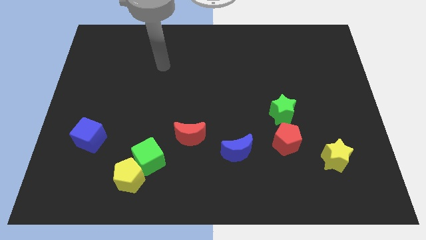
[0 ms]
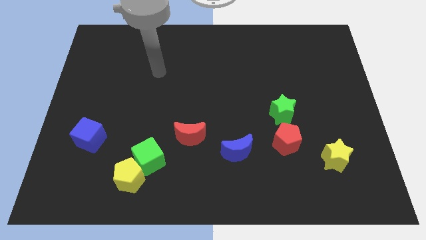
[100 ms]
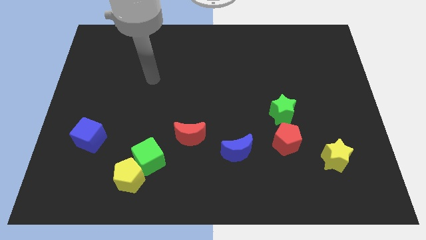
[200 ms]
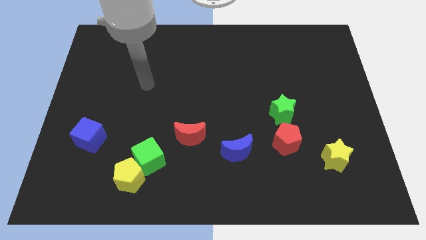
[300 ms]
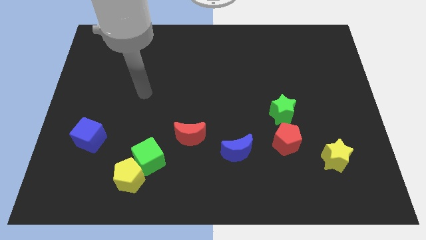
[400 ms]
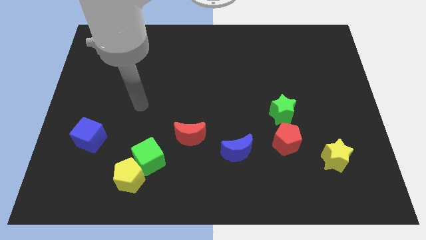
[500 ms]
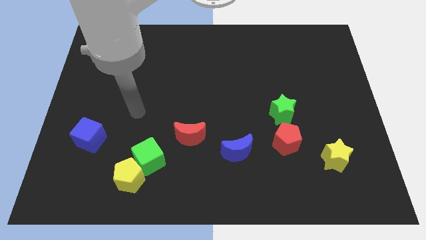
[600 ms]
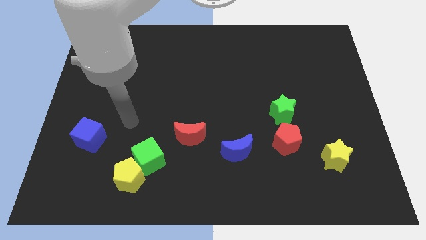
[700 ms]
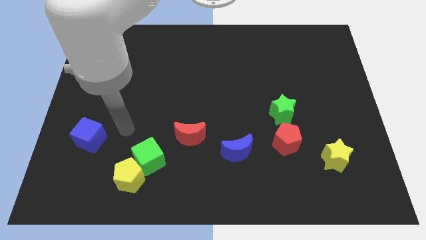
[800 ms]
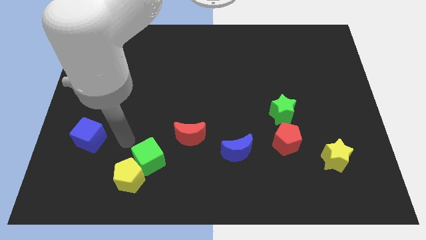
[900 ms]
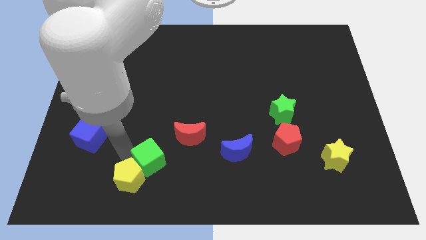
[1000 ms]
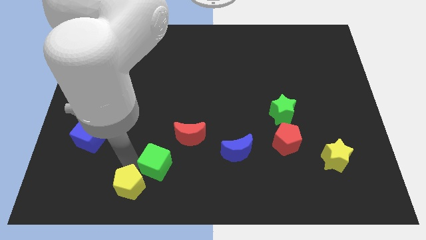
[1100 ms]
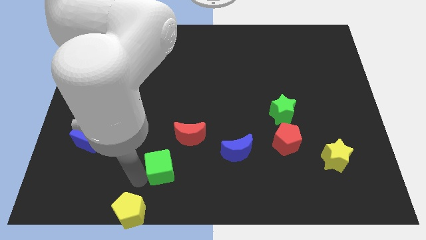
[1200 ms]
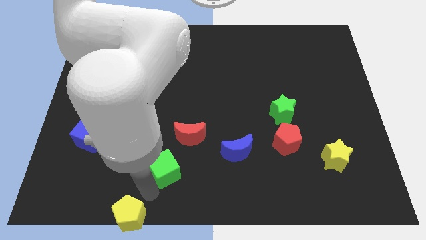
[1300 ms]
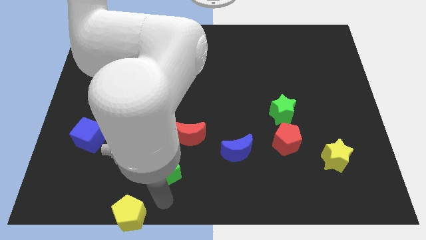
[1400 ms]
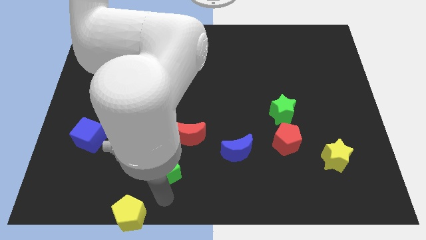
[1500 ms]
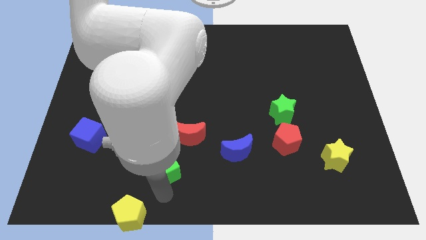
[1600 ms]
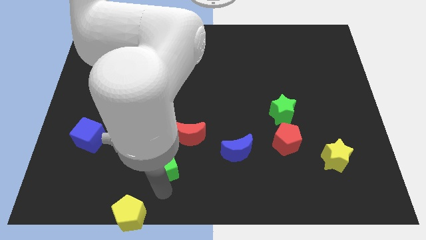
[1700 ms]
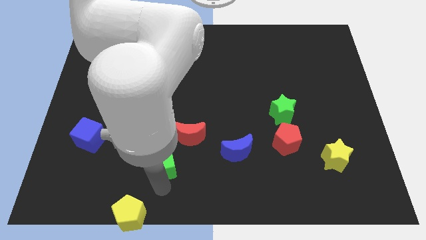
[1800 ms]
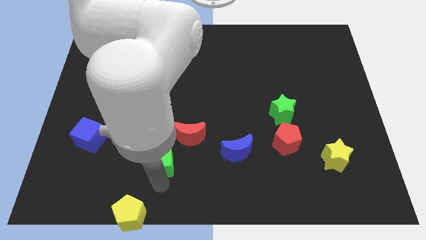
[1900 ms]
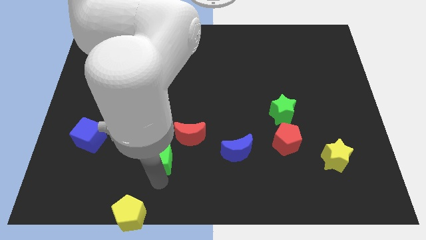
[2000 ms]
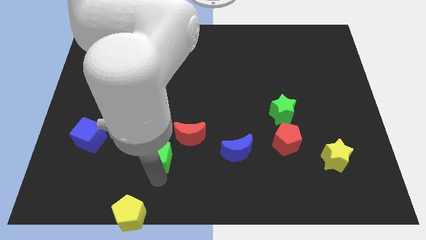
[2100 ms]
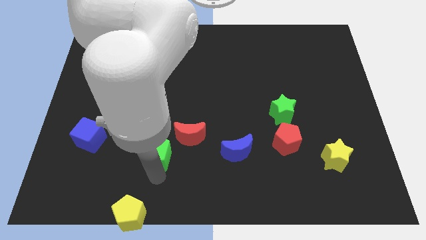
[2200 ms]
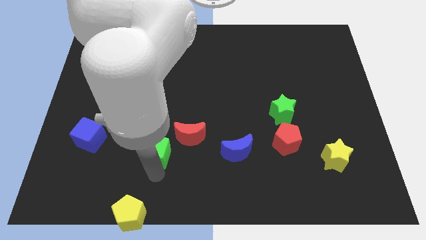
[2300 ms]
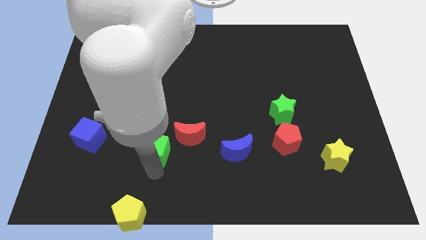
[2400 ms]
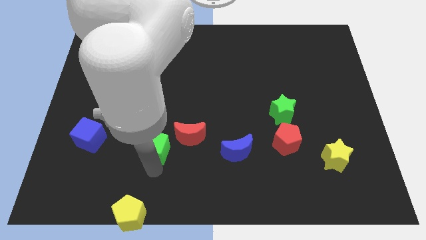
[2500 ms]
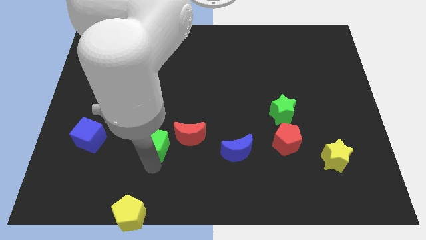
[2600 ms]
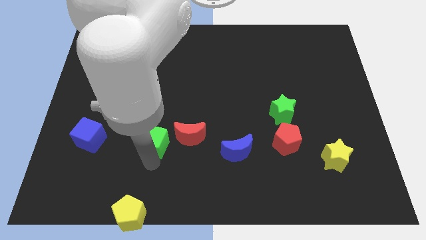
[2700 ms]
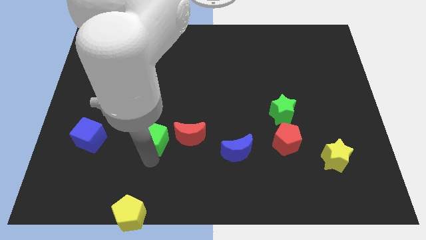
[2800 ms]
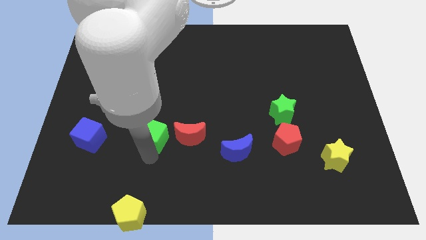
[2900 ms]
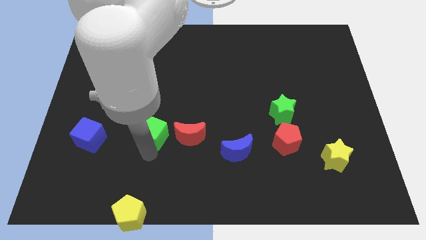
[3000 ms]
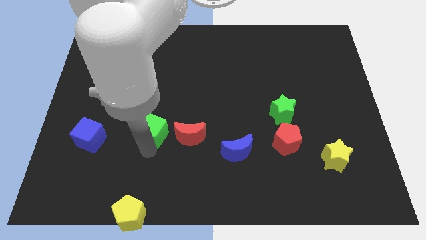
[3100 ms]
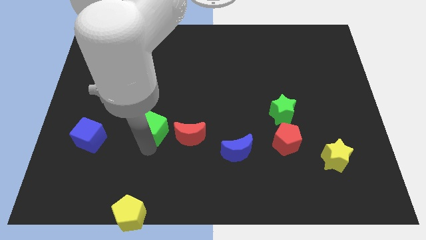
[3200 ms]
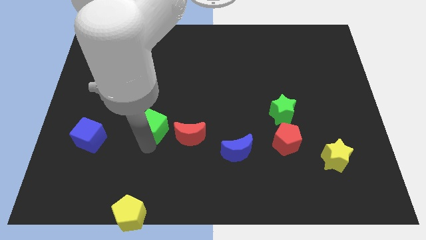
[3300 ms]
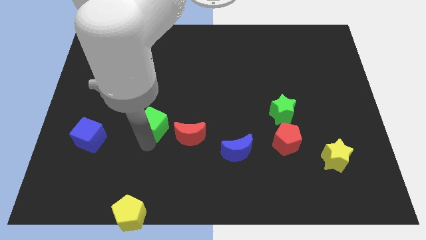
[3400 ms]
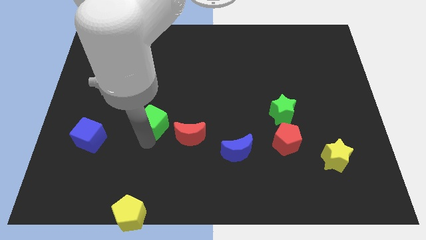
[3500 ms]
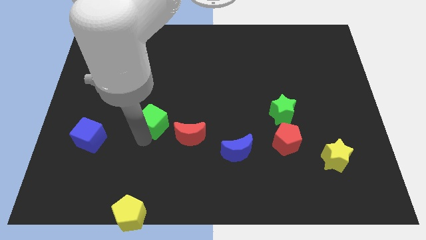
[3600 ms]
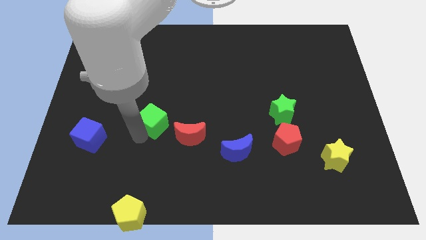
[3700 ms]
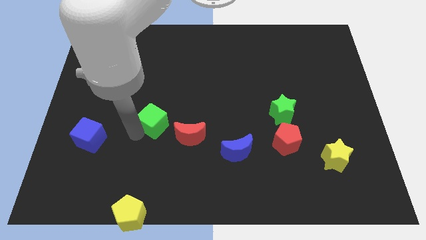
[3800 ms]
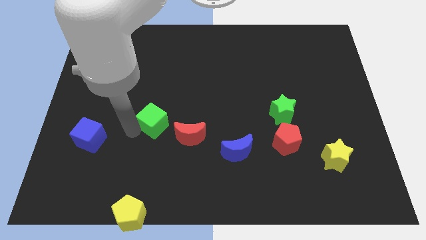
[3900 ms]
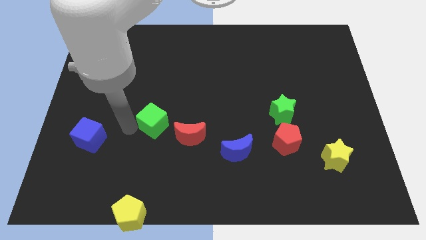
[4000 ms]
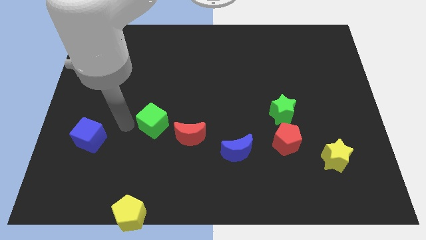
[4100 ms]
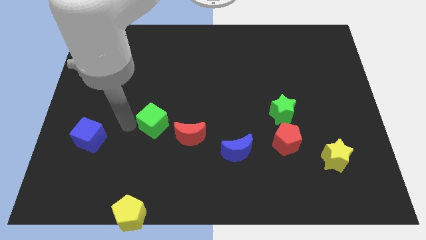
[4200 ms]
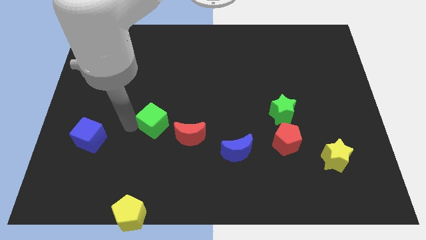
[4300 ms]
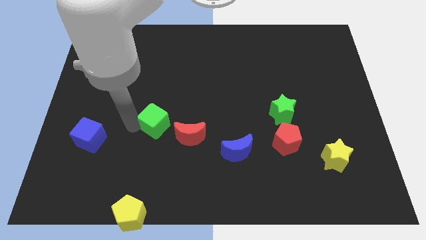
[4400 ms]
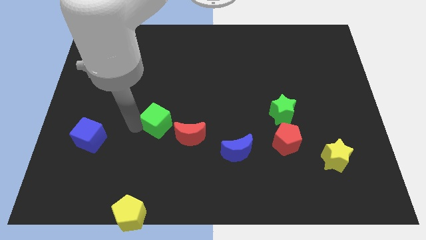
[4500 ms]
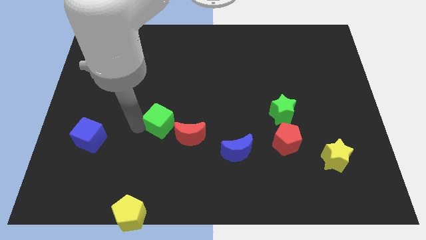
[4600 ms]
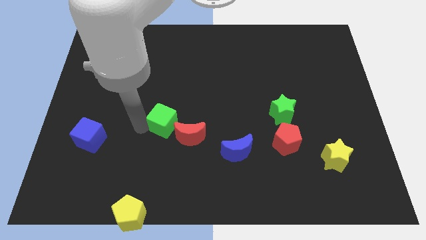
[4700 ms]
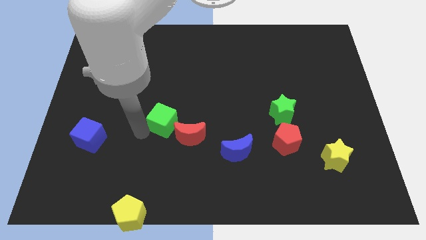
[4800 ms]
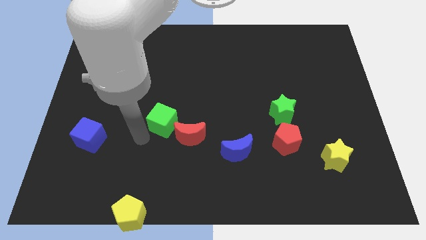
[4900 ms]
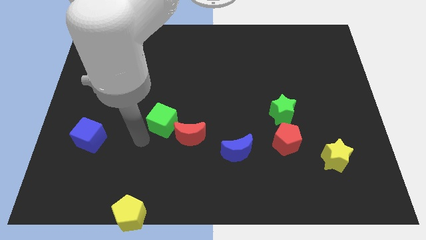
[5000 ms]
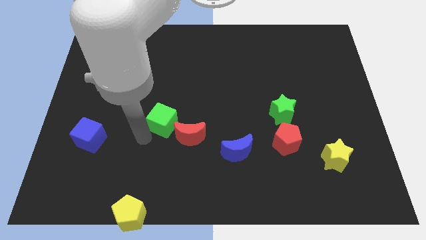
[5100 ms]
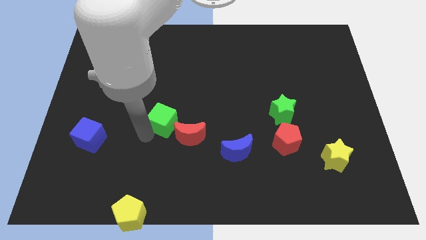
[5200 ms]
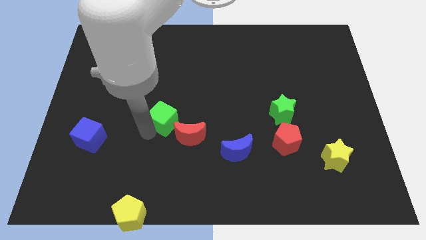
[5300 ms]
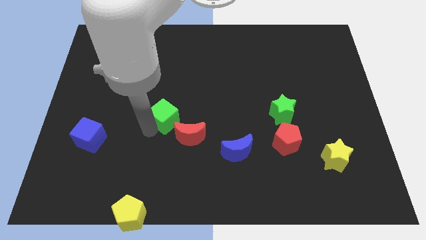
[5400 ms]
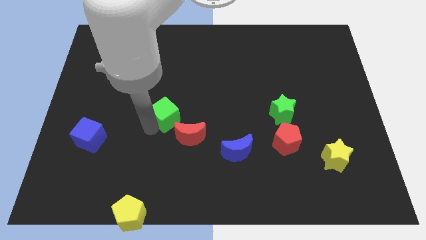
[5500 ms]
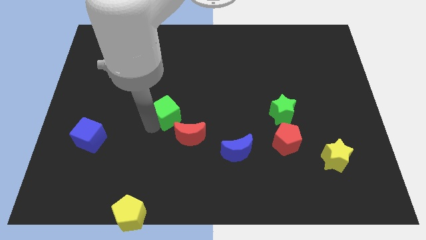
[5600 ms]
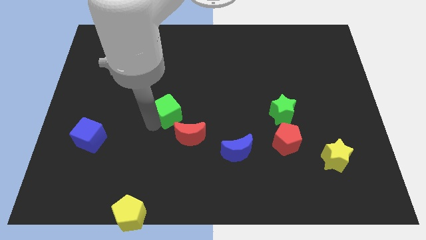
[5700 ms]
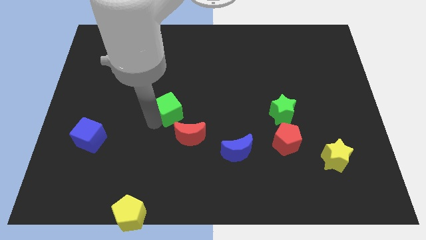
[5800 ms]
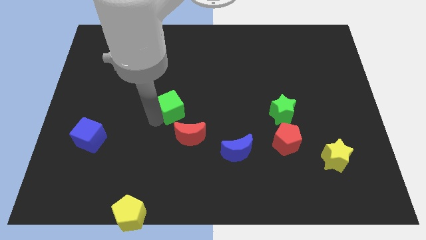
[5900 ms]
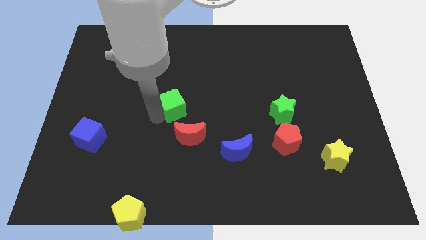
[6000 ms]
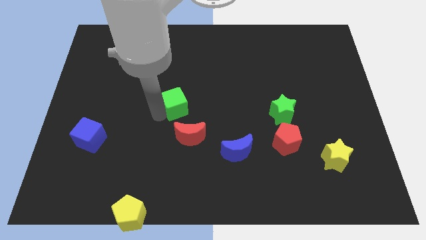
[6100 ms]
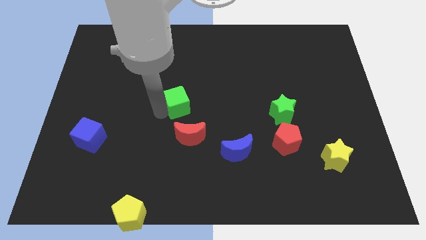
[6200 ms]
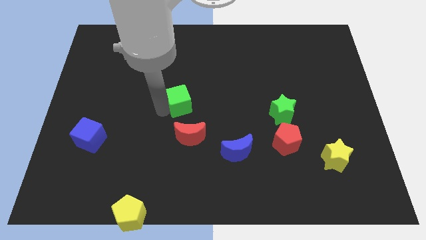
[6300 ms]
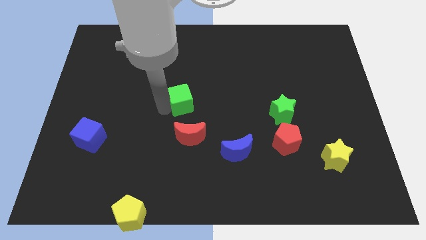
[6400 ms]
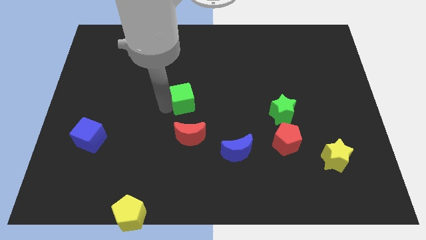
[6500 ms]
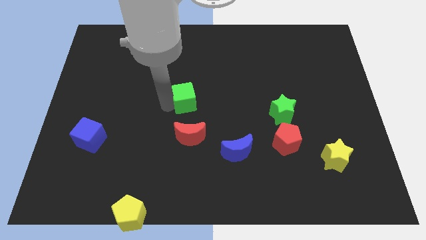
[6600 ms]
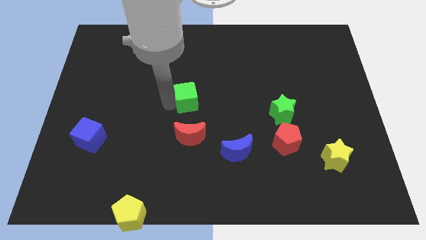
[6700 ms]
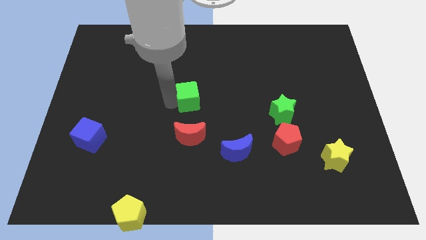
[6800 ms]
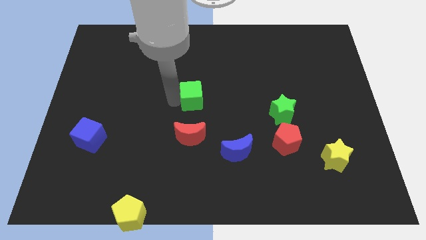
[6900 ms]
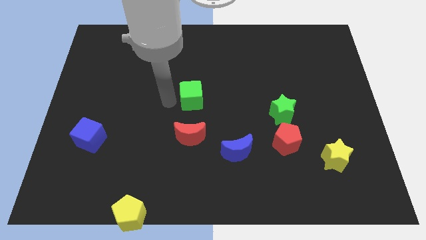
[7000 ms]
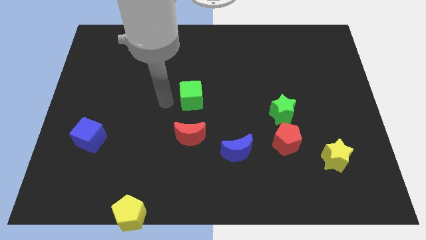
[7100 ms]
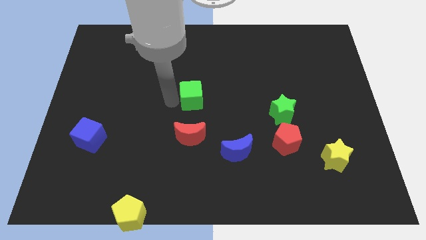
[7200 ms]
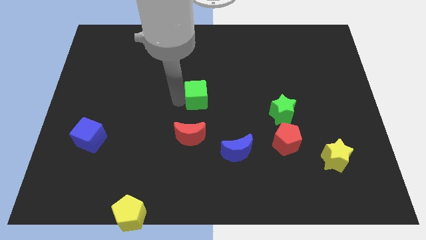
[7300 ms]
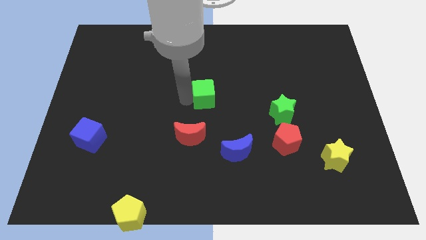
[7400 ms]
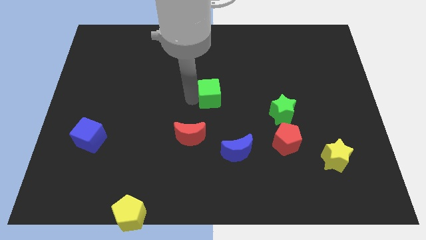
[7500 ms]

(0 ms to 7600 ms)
move the green cube up and right diagonally

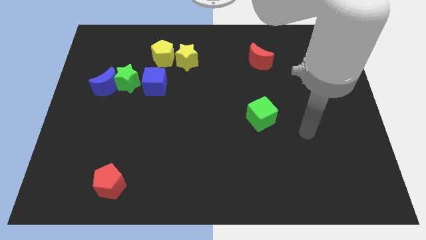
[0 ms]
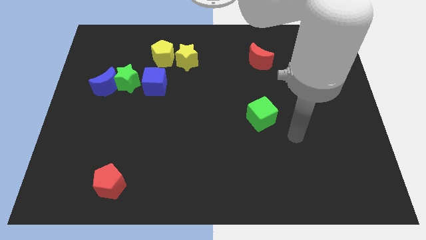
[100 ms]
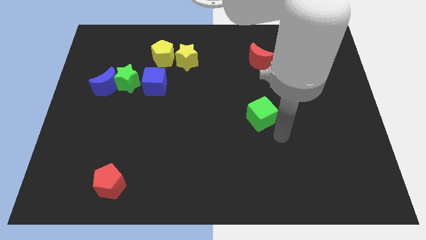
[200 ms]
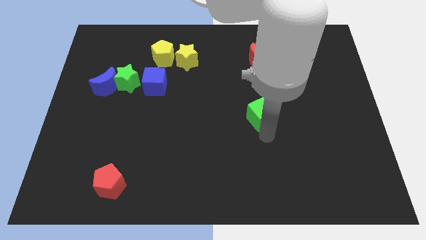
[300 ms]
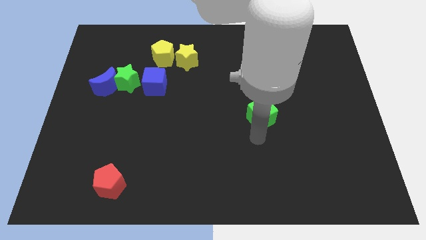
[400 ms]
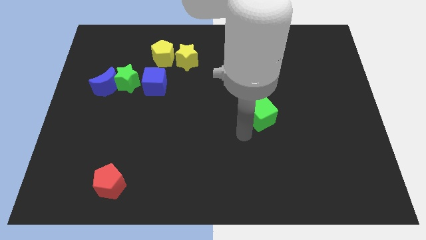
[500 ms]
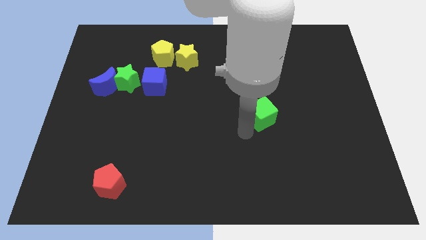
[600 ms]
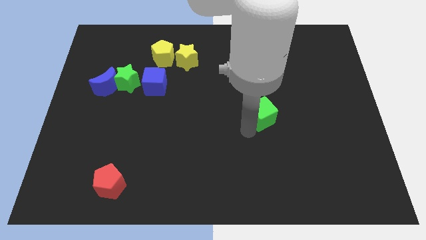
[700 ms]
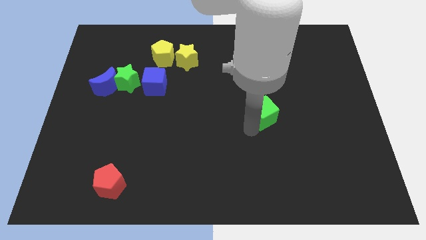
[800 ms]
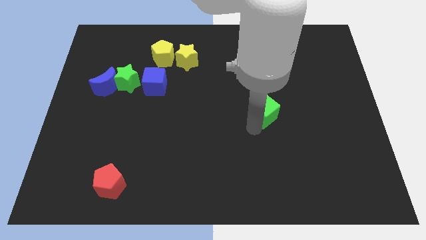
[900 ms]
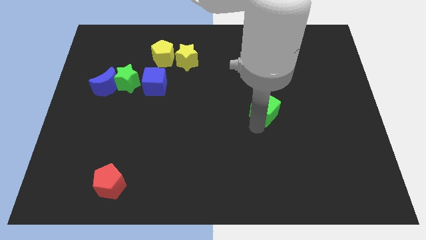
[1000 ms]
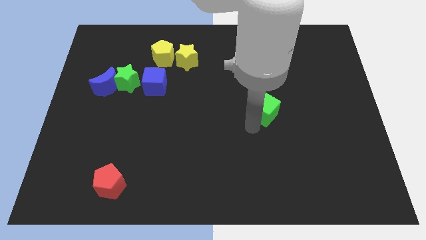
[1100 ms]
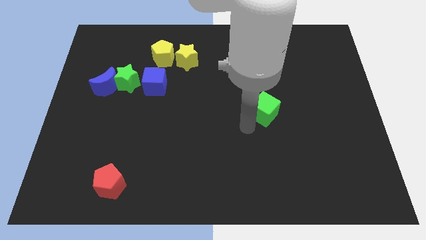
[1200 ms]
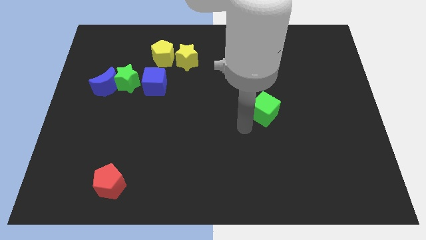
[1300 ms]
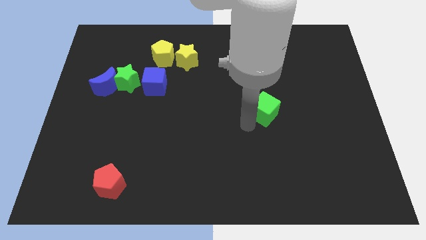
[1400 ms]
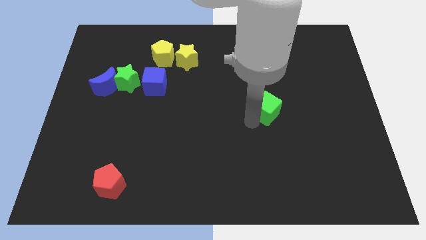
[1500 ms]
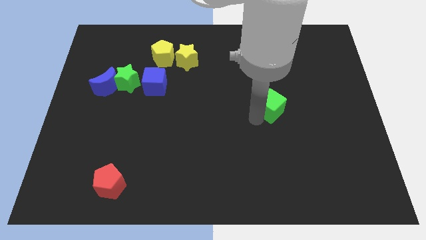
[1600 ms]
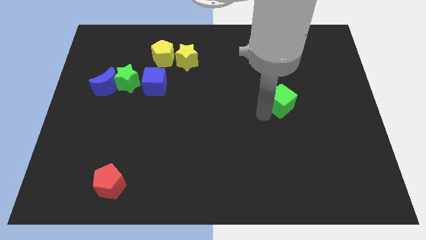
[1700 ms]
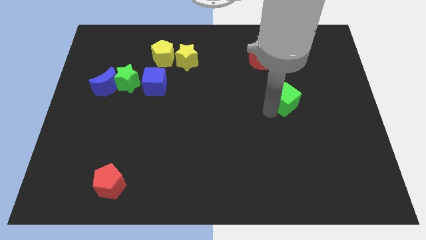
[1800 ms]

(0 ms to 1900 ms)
slide the green cube diagonally up and right somewhat
